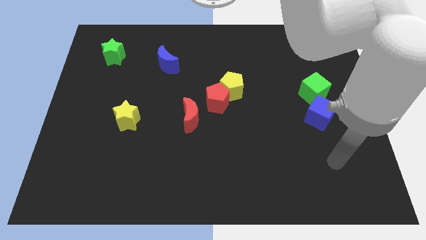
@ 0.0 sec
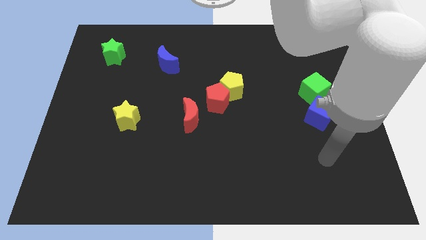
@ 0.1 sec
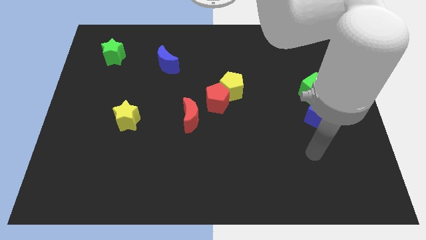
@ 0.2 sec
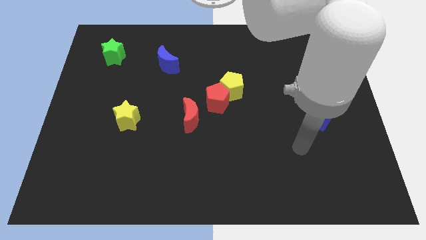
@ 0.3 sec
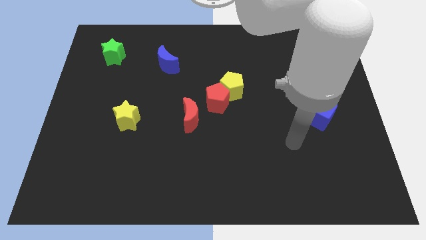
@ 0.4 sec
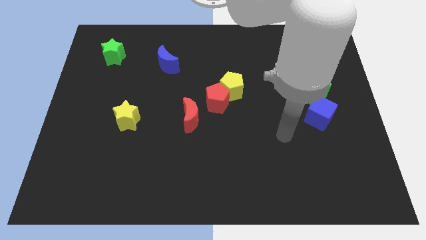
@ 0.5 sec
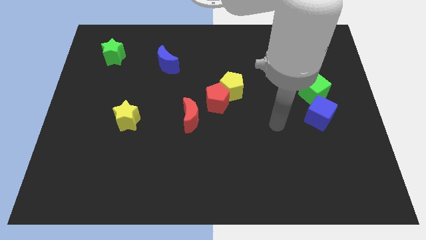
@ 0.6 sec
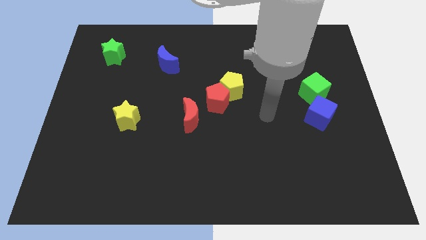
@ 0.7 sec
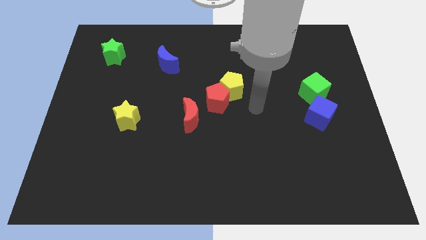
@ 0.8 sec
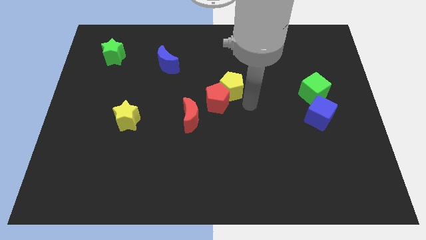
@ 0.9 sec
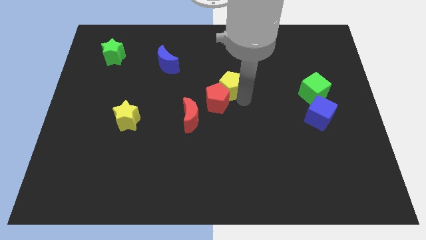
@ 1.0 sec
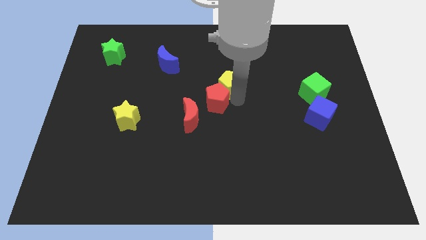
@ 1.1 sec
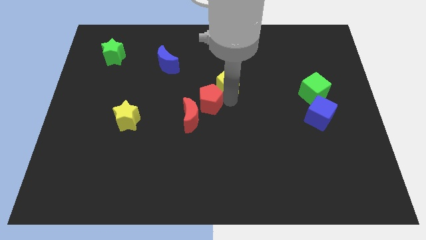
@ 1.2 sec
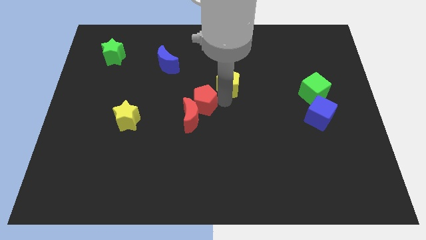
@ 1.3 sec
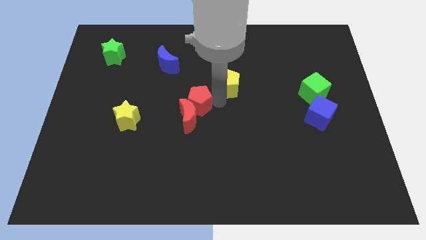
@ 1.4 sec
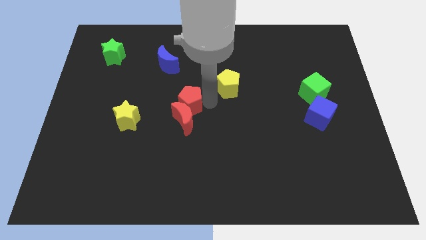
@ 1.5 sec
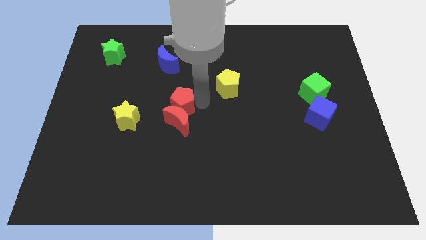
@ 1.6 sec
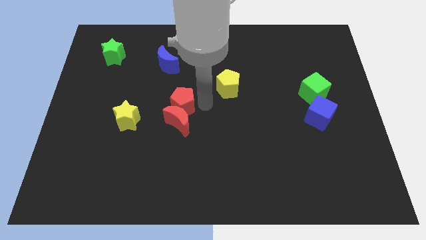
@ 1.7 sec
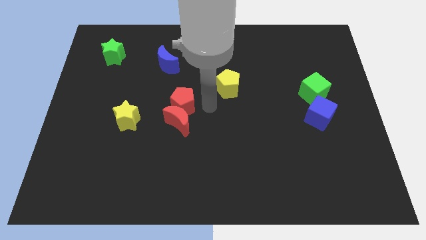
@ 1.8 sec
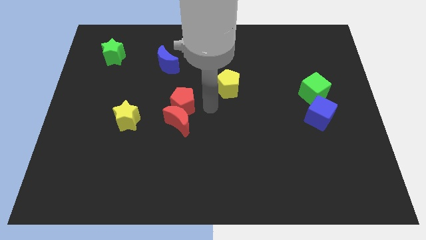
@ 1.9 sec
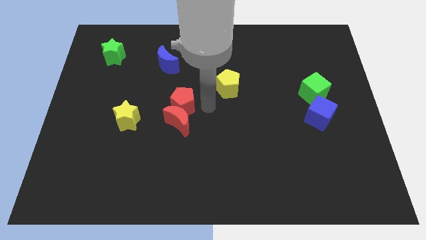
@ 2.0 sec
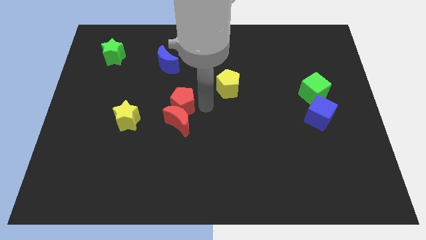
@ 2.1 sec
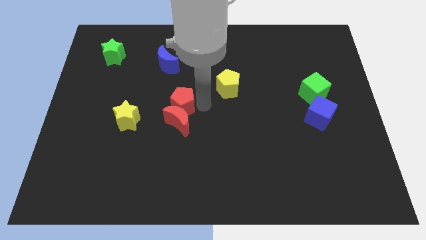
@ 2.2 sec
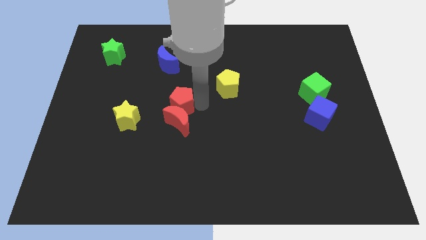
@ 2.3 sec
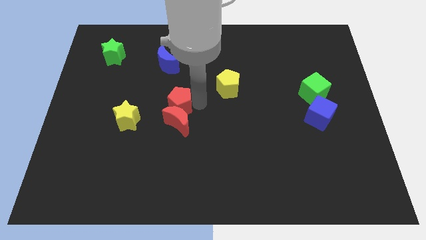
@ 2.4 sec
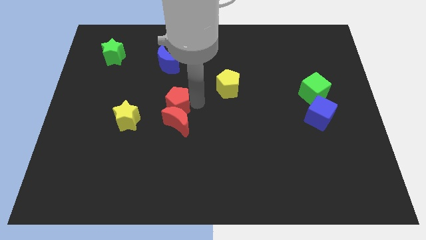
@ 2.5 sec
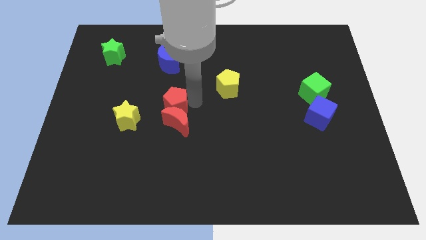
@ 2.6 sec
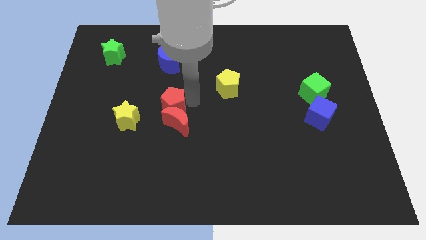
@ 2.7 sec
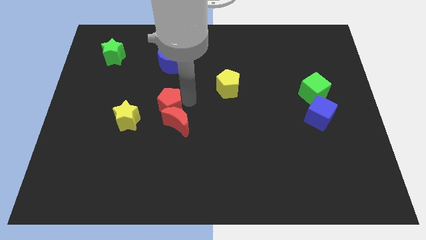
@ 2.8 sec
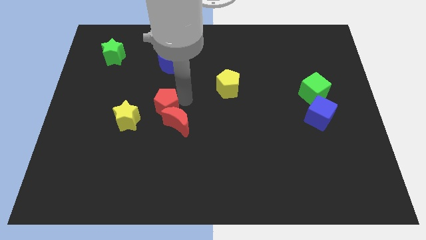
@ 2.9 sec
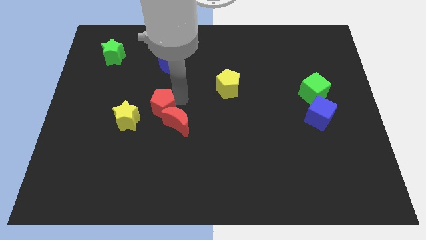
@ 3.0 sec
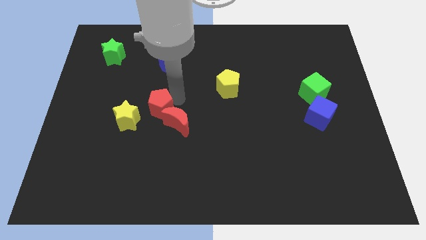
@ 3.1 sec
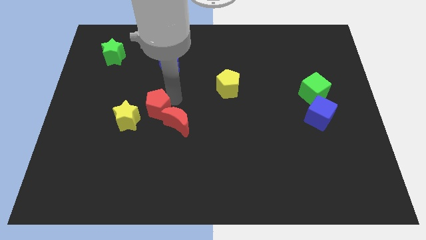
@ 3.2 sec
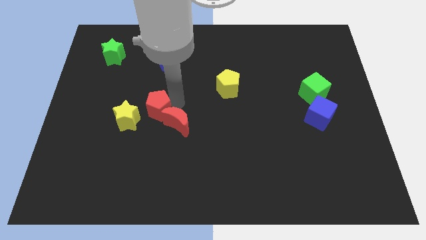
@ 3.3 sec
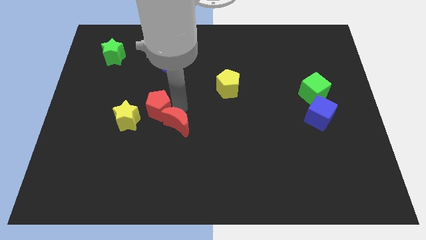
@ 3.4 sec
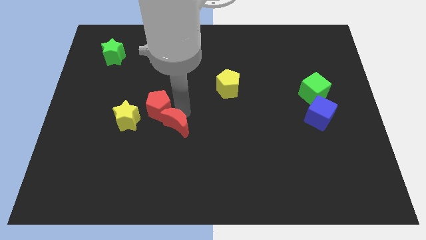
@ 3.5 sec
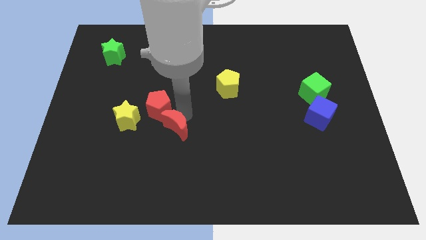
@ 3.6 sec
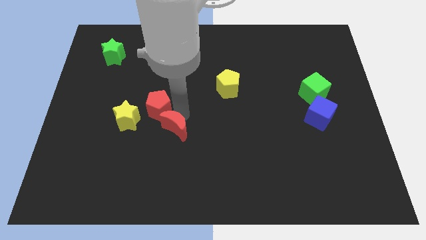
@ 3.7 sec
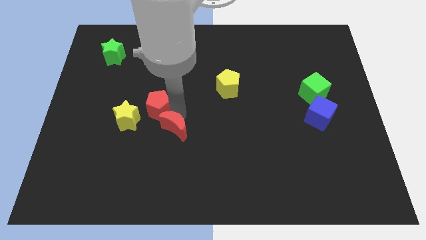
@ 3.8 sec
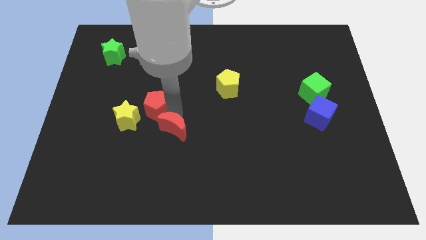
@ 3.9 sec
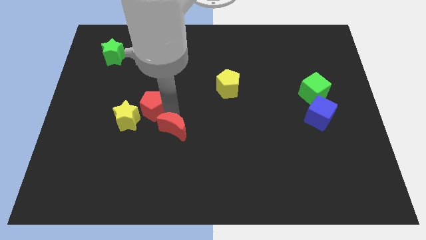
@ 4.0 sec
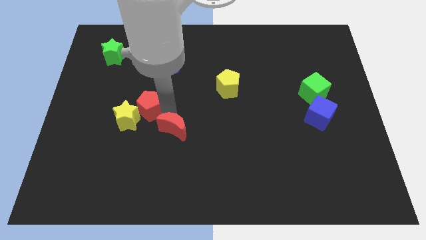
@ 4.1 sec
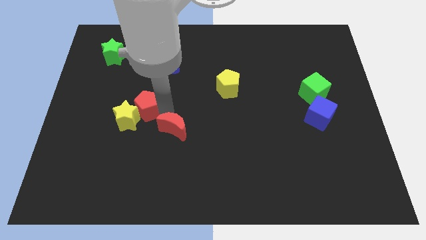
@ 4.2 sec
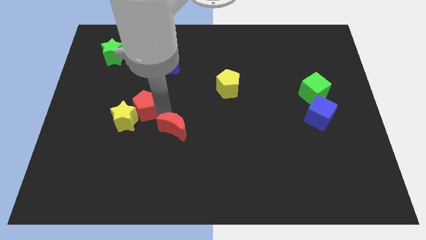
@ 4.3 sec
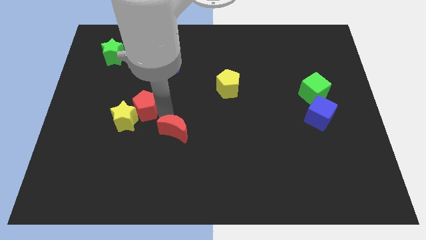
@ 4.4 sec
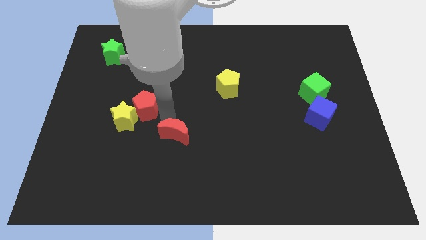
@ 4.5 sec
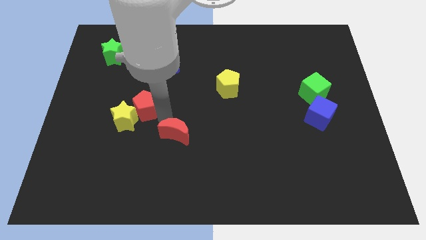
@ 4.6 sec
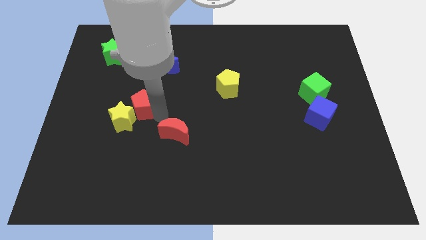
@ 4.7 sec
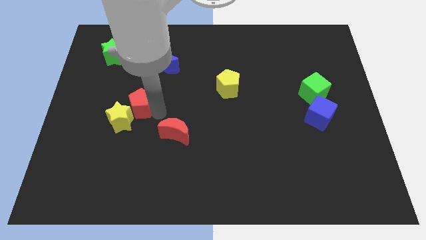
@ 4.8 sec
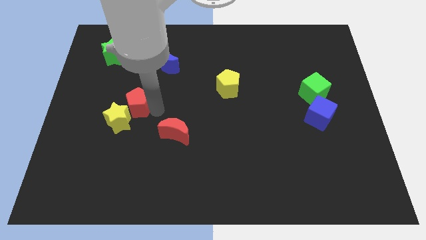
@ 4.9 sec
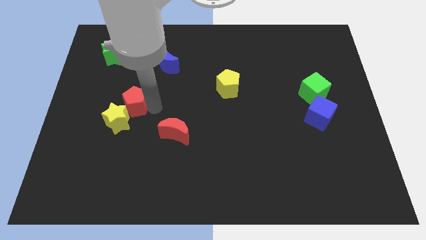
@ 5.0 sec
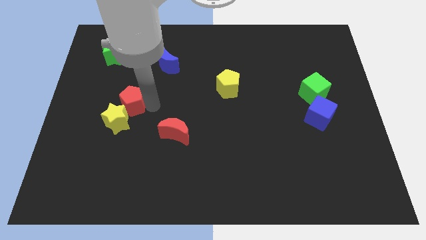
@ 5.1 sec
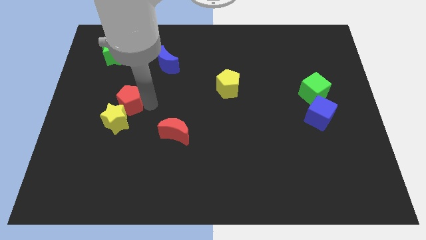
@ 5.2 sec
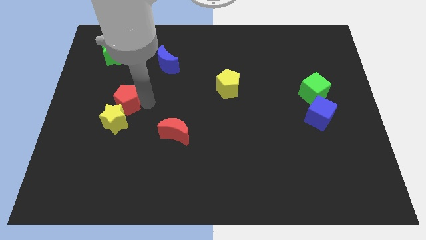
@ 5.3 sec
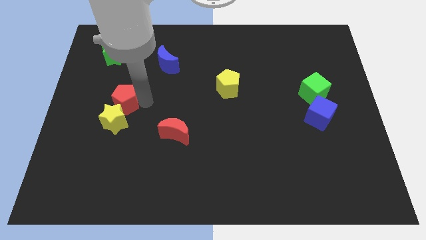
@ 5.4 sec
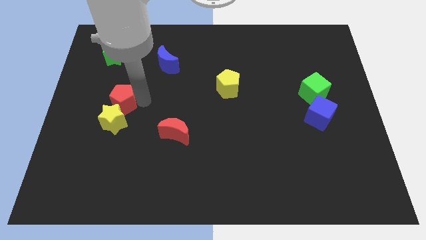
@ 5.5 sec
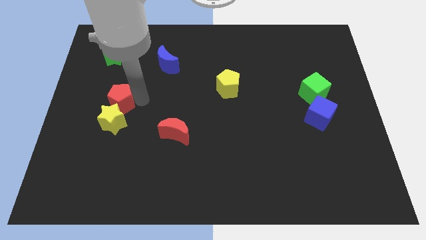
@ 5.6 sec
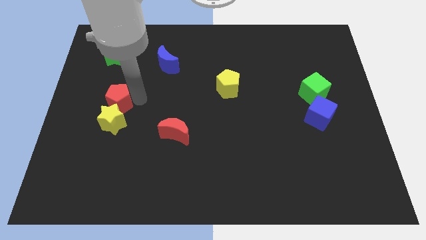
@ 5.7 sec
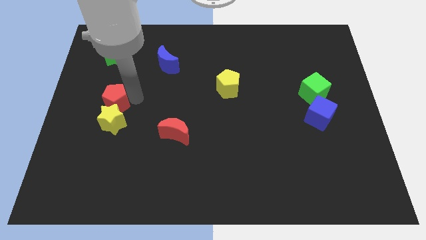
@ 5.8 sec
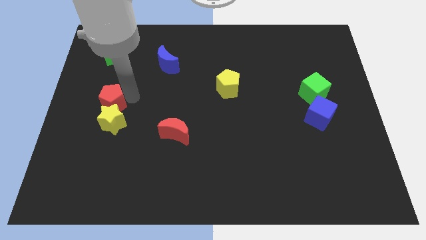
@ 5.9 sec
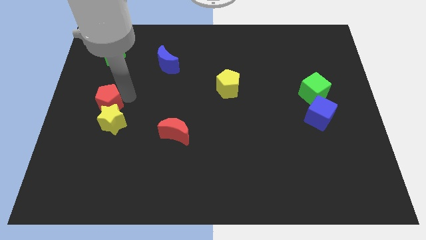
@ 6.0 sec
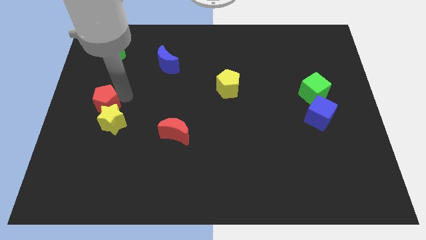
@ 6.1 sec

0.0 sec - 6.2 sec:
slide the red pentagon to the left side
